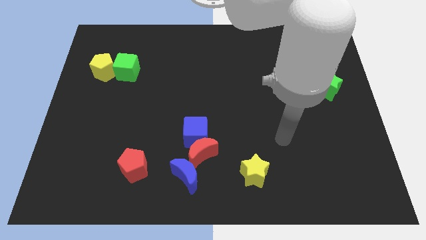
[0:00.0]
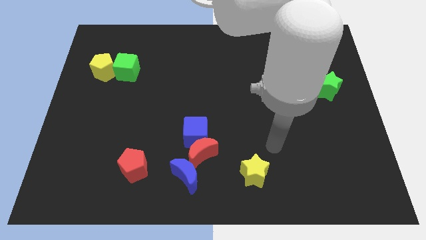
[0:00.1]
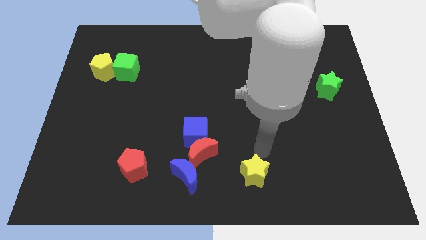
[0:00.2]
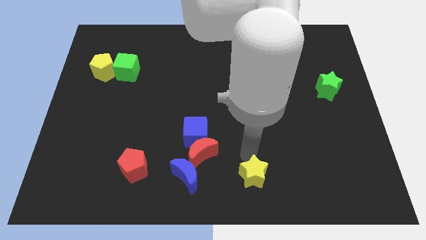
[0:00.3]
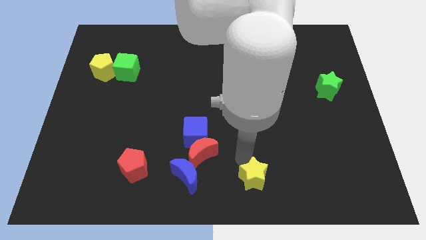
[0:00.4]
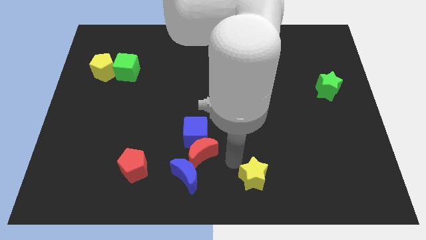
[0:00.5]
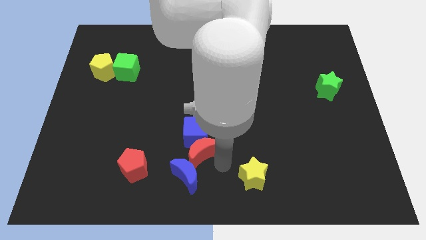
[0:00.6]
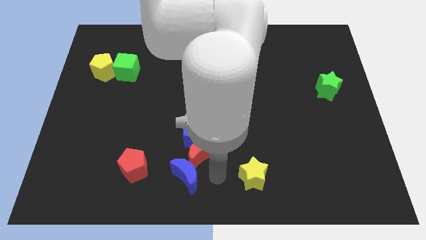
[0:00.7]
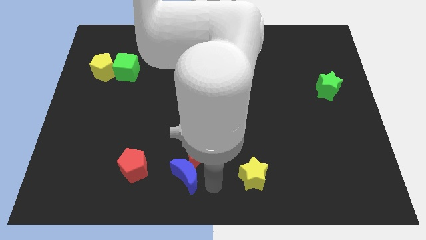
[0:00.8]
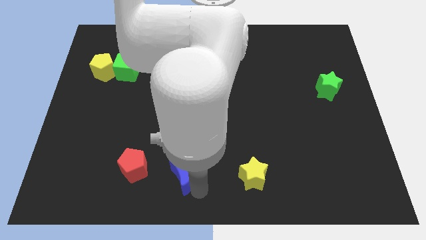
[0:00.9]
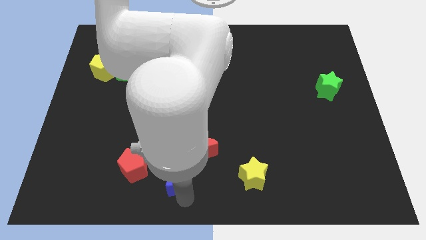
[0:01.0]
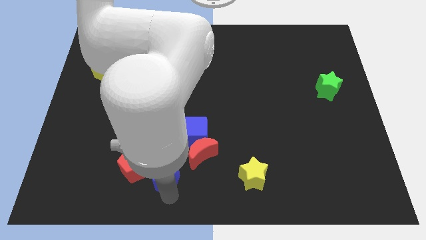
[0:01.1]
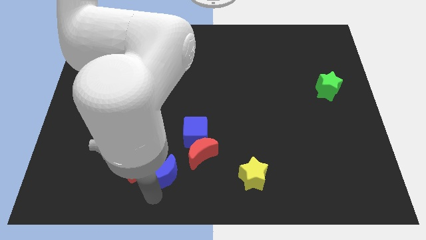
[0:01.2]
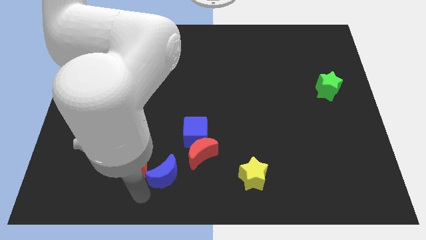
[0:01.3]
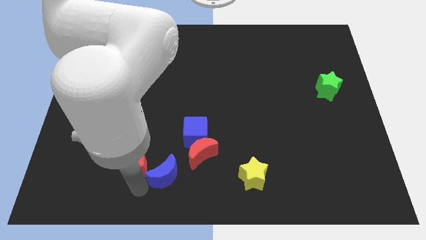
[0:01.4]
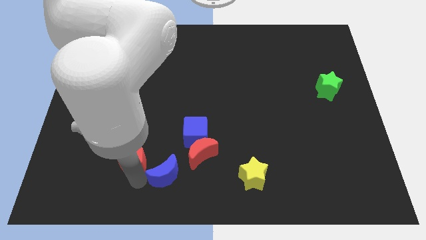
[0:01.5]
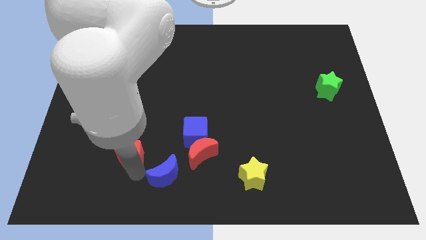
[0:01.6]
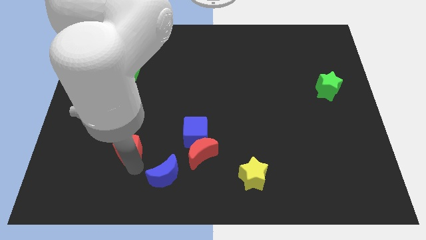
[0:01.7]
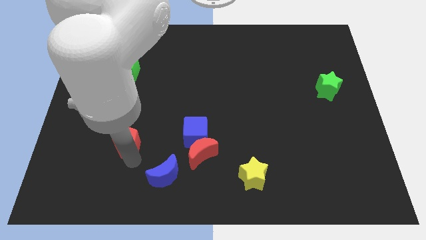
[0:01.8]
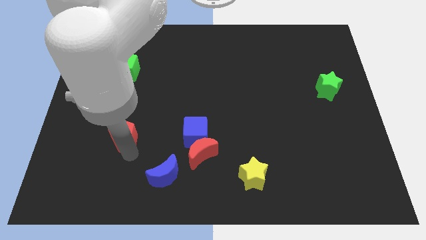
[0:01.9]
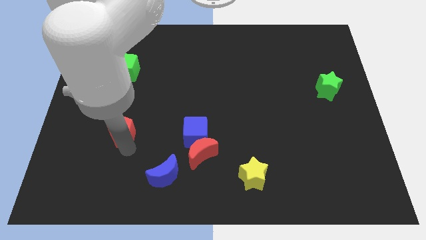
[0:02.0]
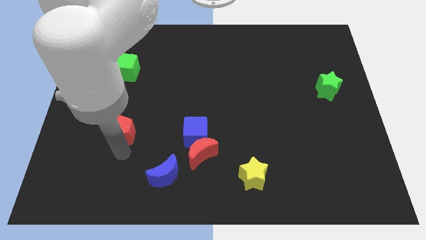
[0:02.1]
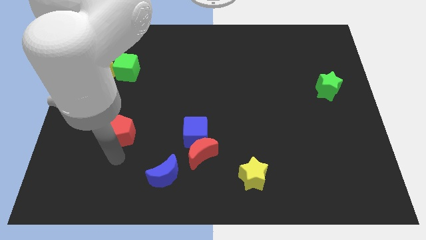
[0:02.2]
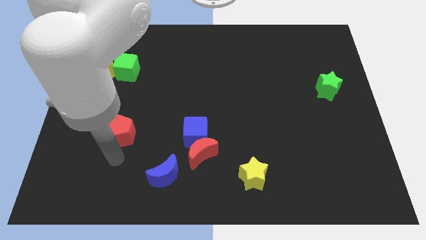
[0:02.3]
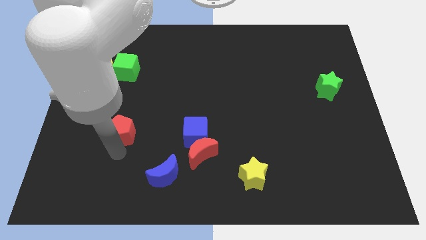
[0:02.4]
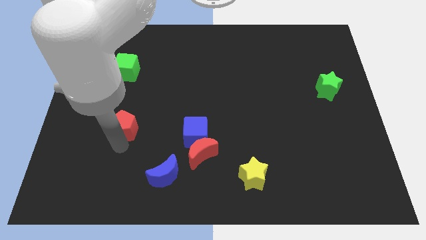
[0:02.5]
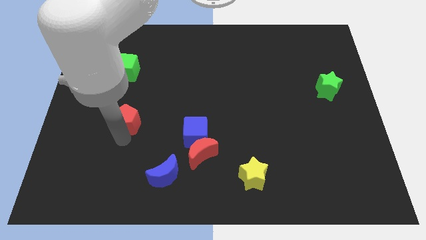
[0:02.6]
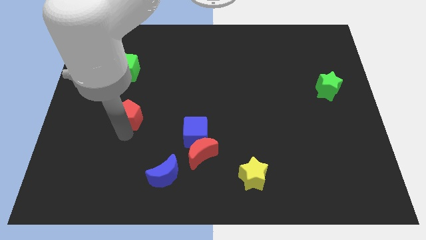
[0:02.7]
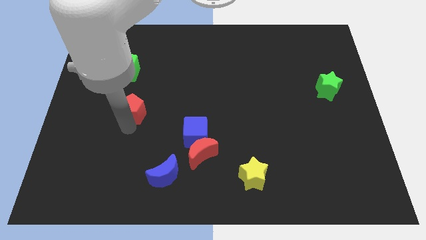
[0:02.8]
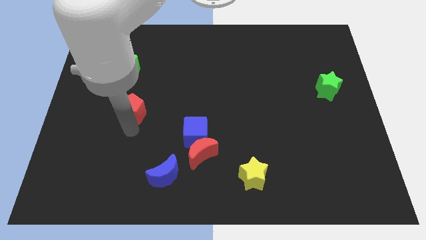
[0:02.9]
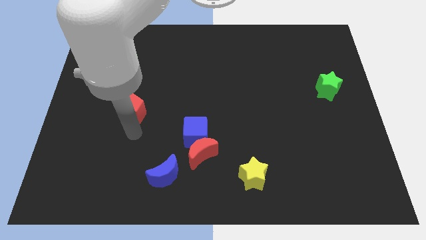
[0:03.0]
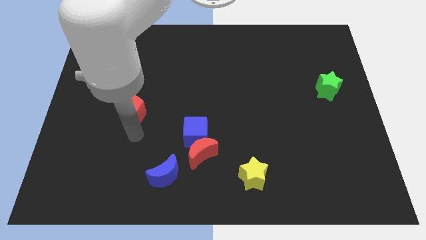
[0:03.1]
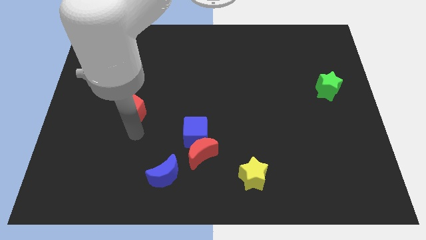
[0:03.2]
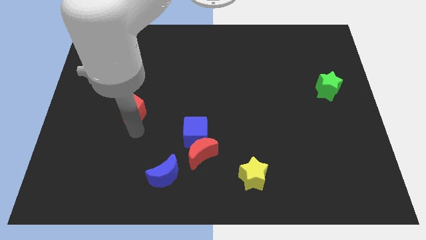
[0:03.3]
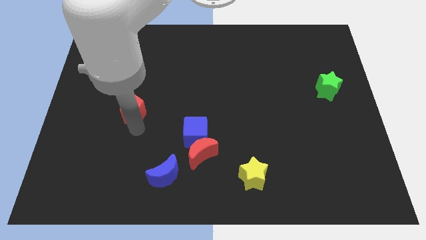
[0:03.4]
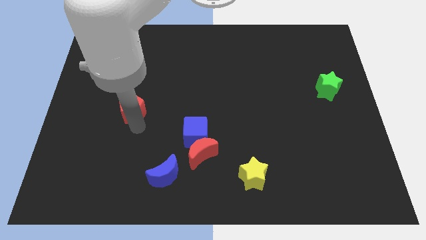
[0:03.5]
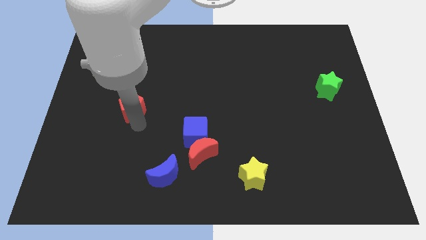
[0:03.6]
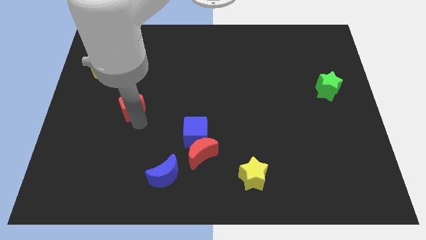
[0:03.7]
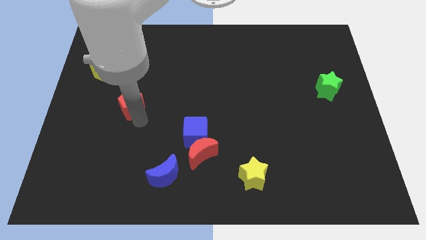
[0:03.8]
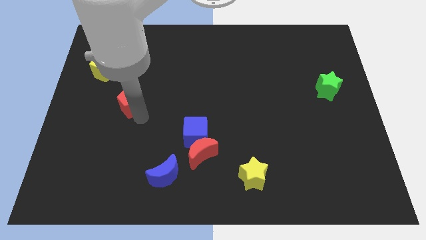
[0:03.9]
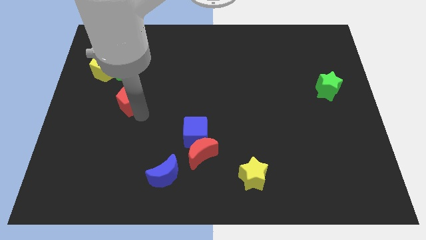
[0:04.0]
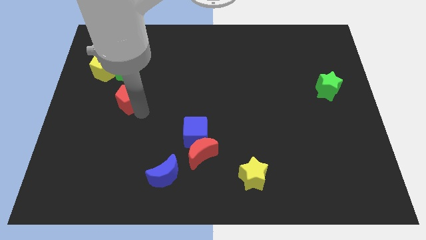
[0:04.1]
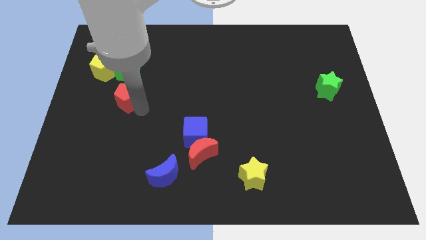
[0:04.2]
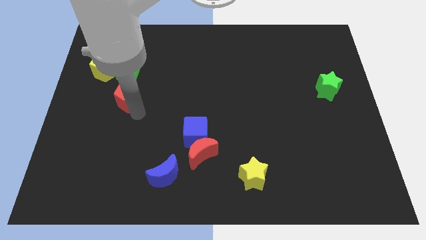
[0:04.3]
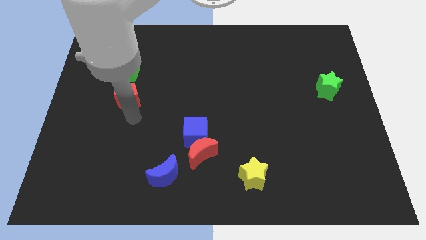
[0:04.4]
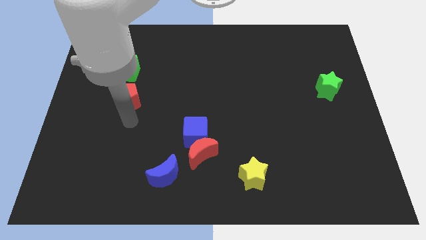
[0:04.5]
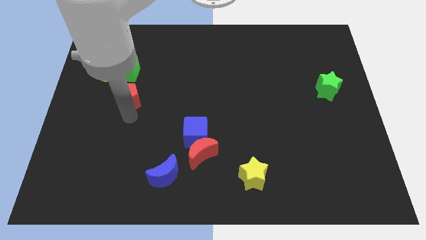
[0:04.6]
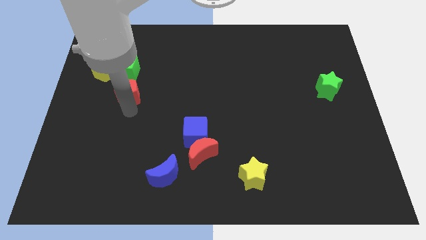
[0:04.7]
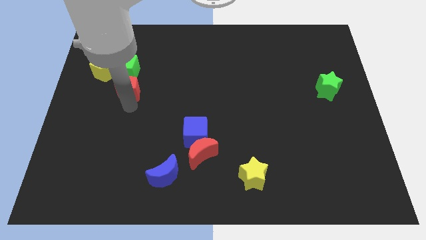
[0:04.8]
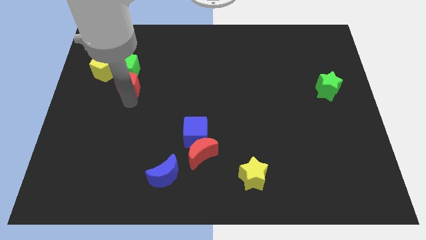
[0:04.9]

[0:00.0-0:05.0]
move the red pentagon close to the green cube

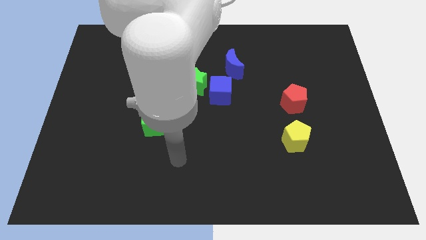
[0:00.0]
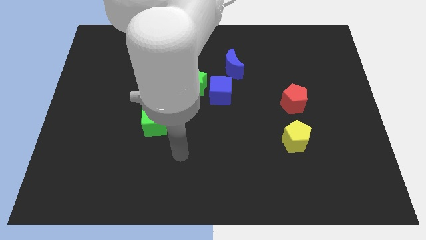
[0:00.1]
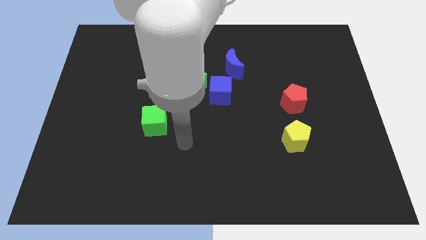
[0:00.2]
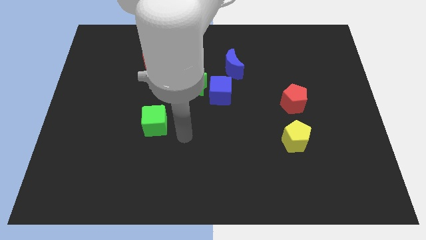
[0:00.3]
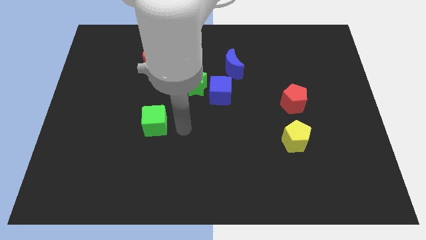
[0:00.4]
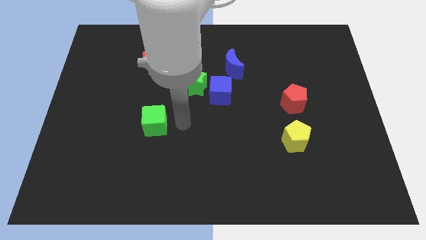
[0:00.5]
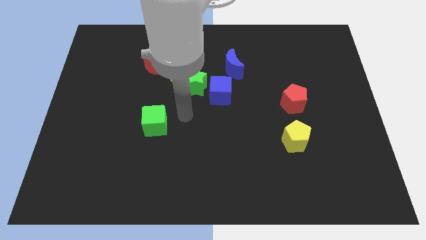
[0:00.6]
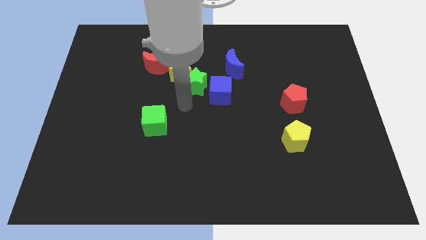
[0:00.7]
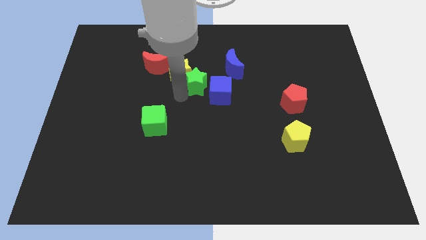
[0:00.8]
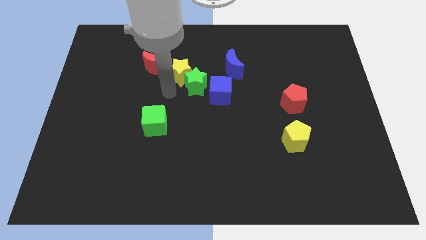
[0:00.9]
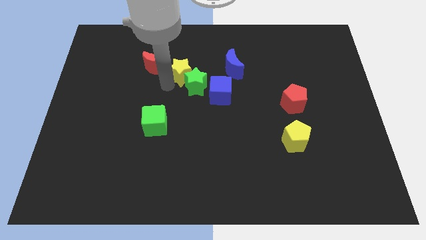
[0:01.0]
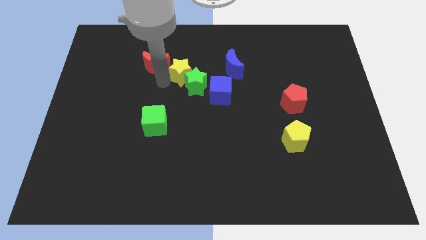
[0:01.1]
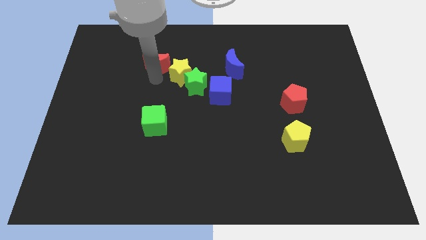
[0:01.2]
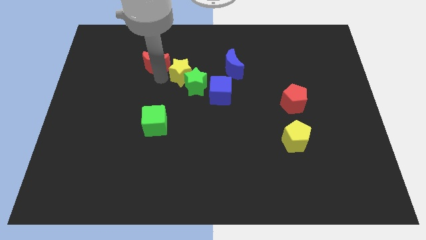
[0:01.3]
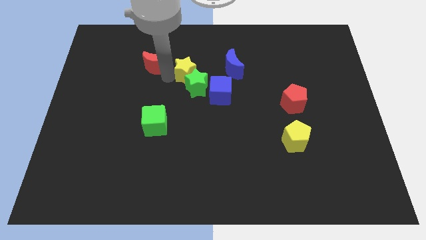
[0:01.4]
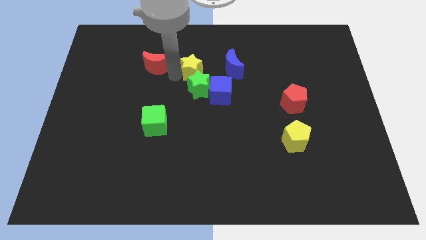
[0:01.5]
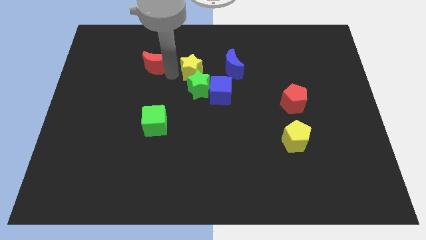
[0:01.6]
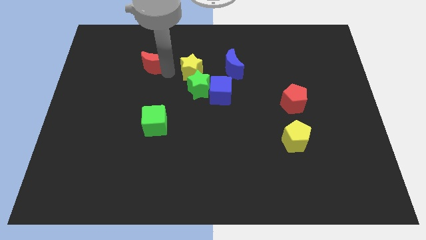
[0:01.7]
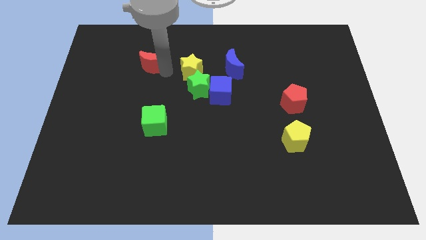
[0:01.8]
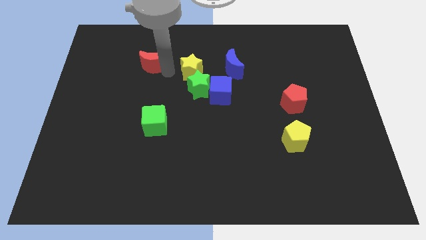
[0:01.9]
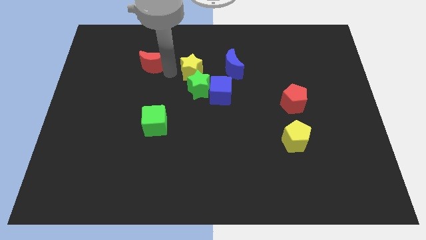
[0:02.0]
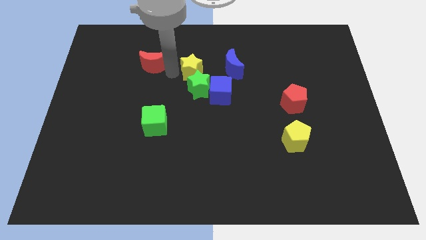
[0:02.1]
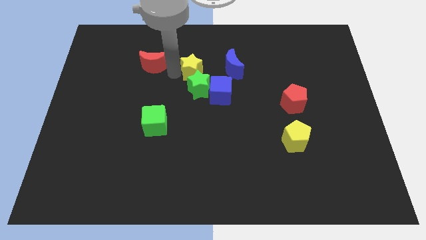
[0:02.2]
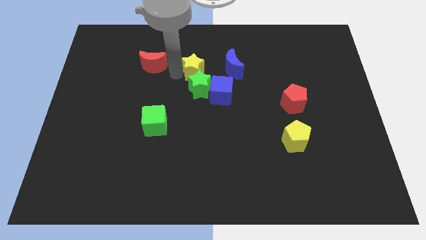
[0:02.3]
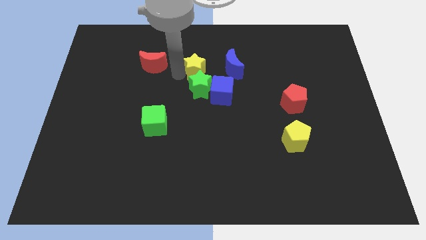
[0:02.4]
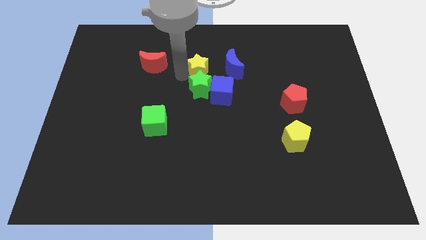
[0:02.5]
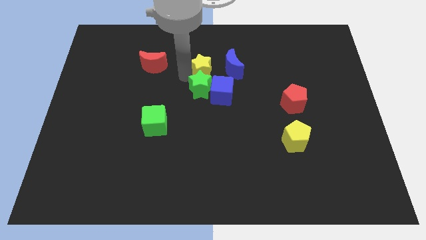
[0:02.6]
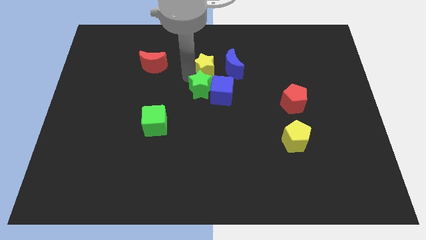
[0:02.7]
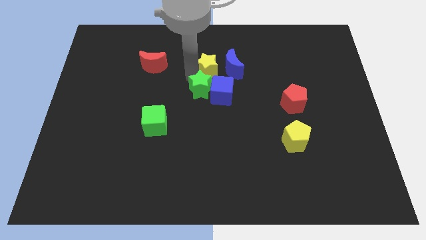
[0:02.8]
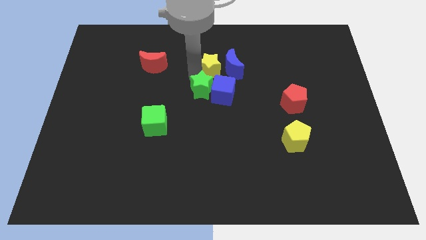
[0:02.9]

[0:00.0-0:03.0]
put the yellow star towards the blue moon
